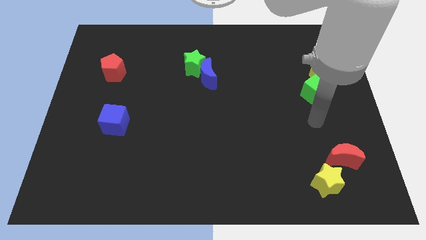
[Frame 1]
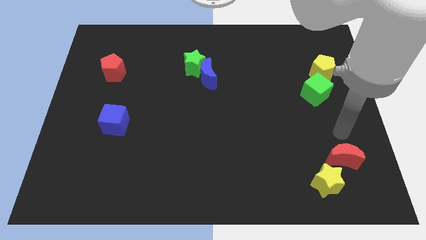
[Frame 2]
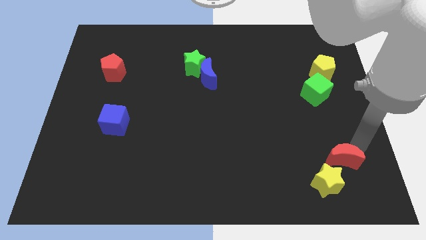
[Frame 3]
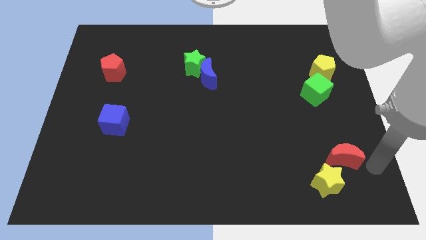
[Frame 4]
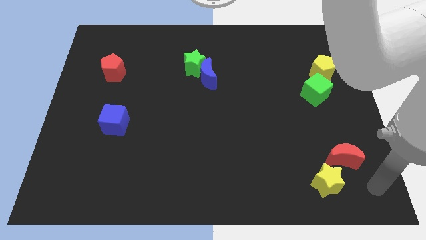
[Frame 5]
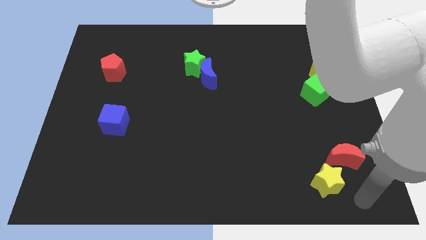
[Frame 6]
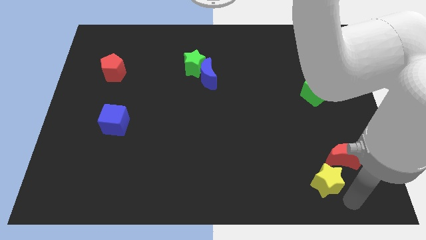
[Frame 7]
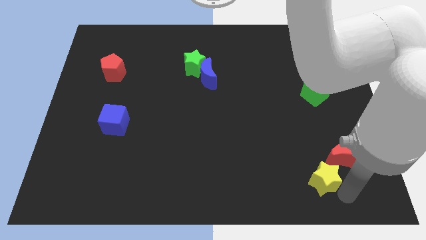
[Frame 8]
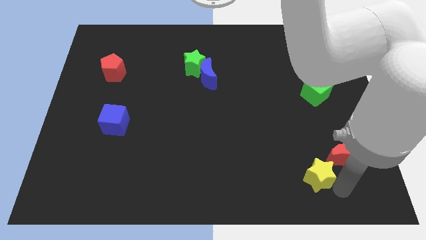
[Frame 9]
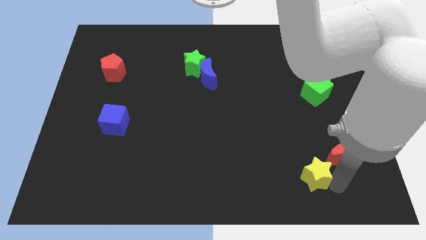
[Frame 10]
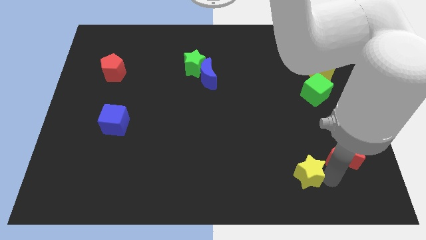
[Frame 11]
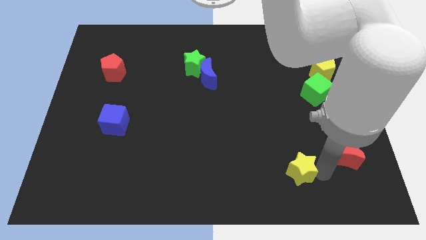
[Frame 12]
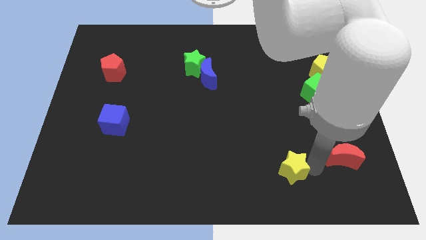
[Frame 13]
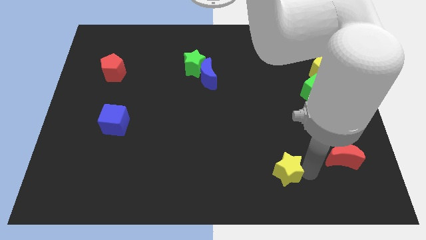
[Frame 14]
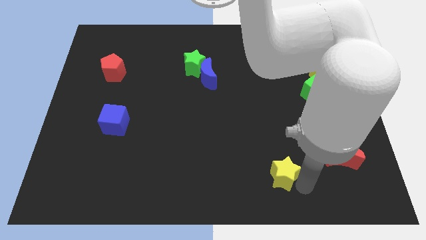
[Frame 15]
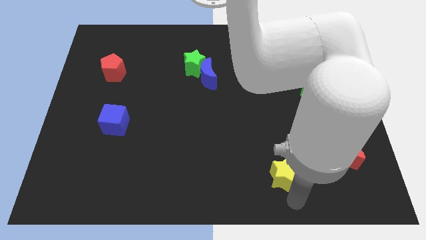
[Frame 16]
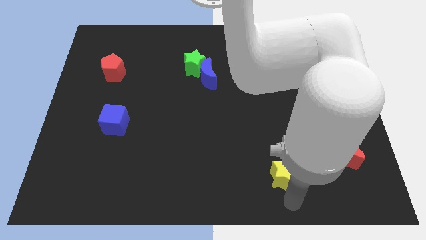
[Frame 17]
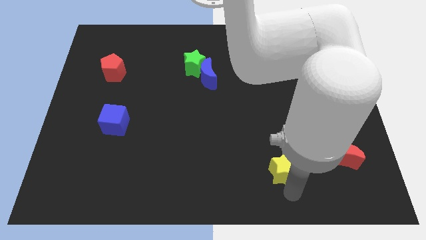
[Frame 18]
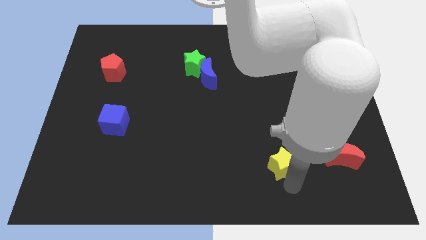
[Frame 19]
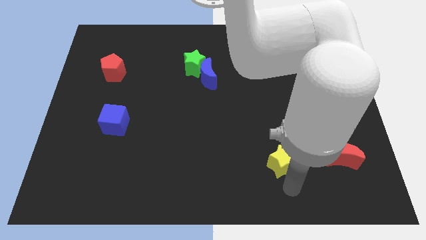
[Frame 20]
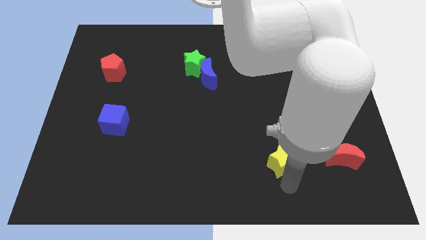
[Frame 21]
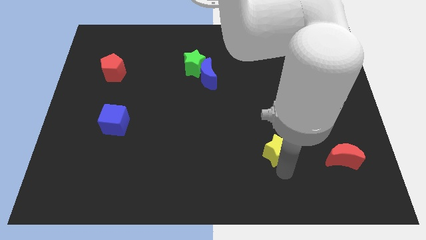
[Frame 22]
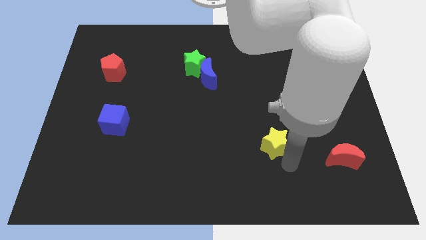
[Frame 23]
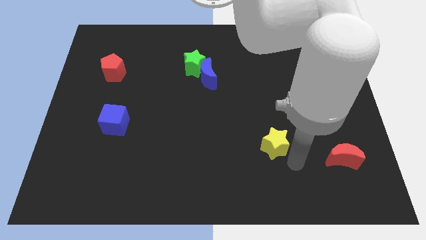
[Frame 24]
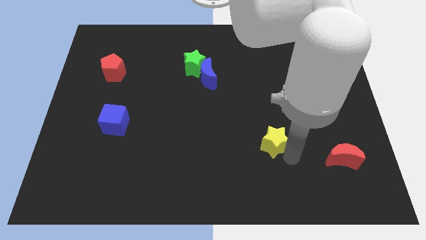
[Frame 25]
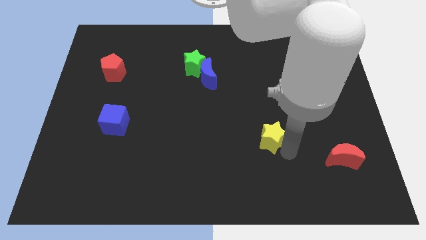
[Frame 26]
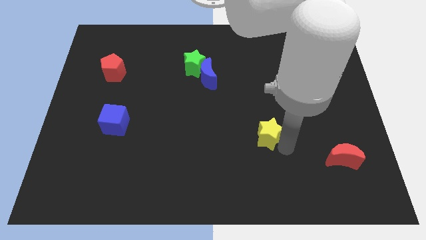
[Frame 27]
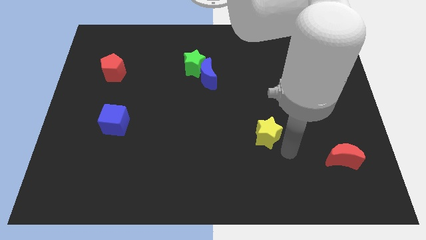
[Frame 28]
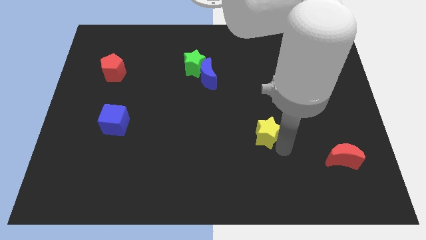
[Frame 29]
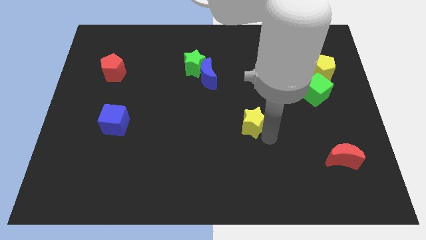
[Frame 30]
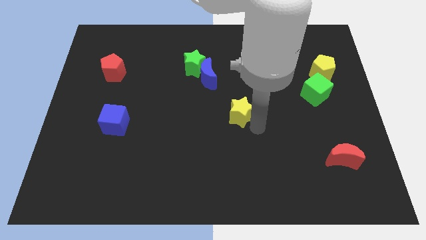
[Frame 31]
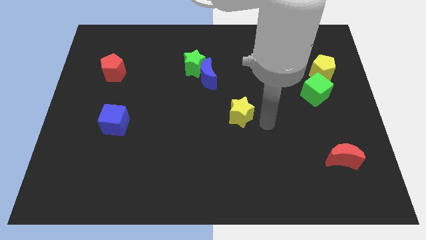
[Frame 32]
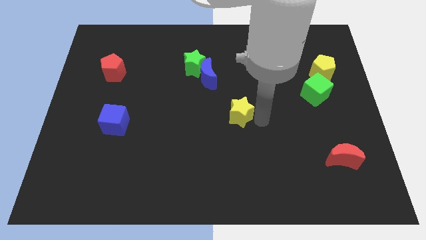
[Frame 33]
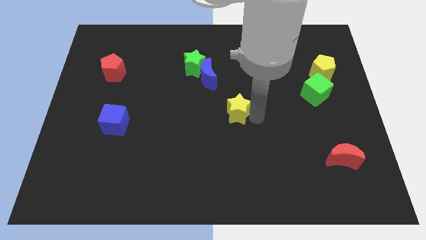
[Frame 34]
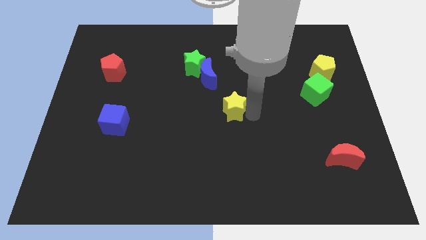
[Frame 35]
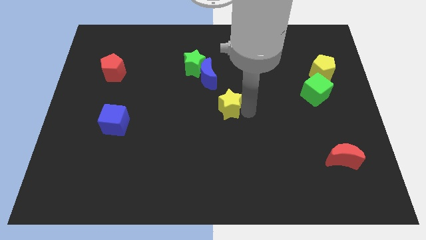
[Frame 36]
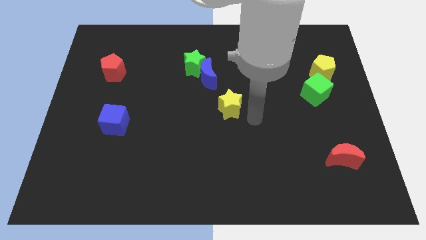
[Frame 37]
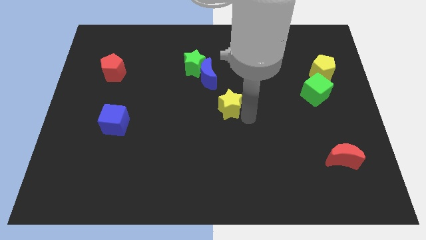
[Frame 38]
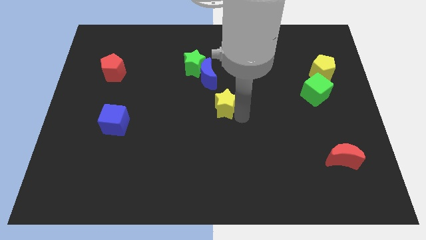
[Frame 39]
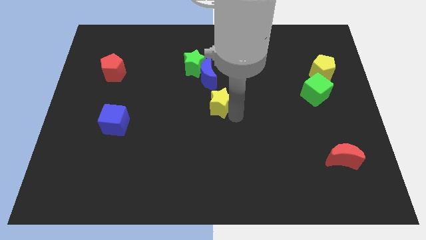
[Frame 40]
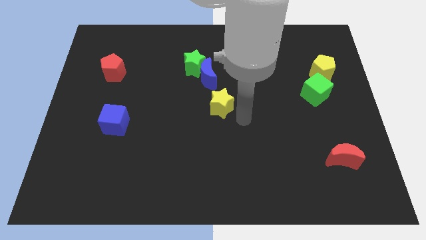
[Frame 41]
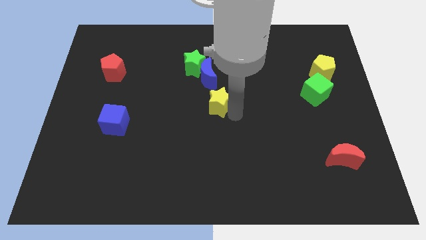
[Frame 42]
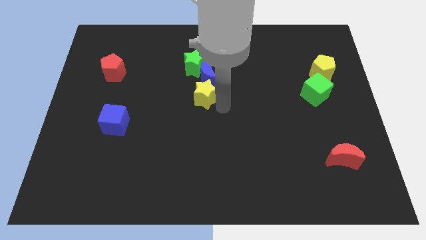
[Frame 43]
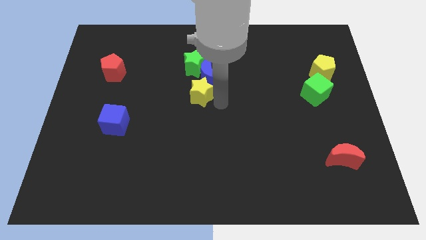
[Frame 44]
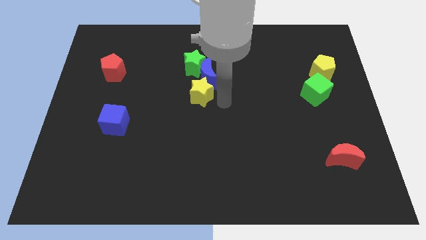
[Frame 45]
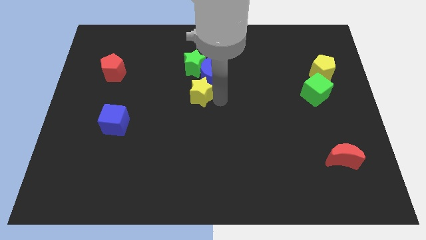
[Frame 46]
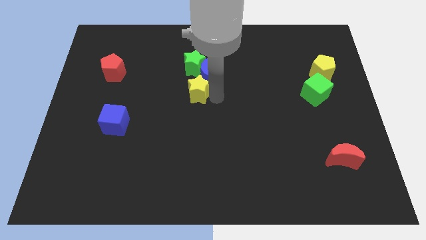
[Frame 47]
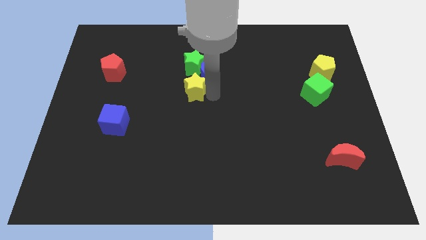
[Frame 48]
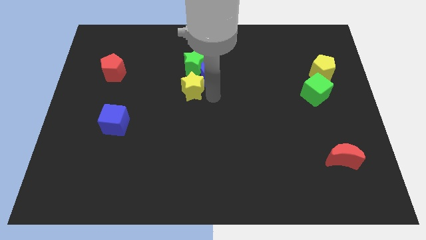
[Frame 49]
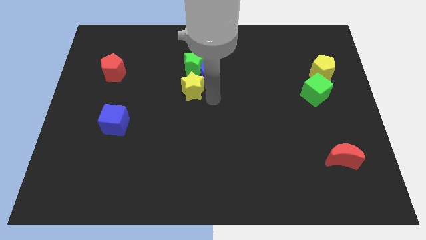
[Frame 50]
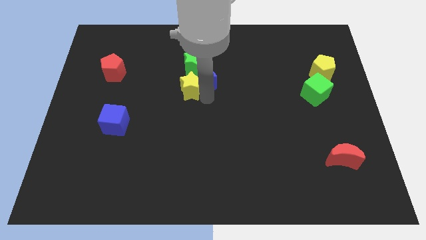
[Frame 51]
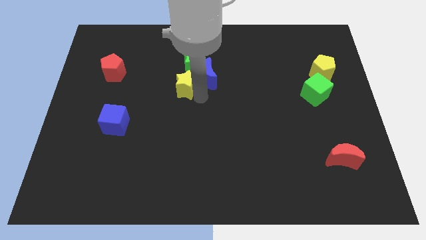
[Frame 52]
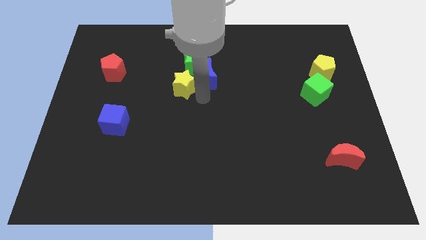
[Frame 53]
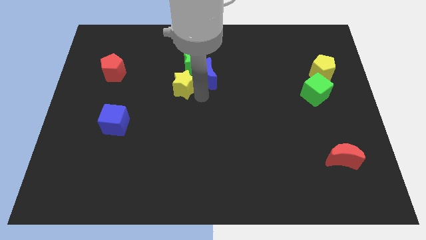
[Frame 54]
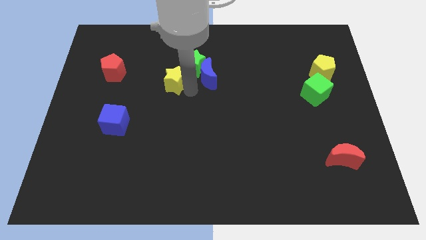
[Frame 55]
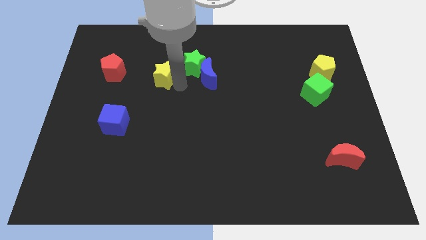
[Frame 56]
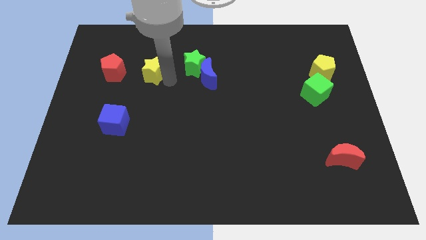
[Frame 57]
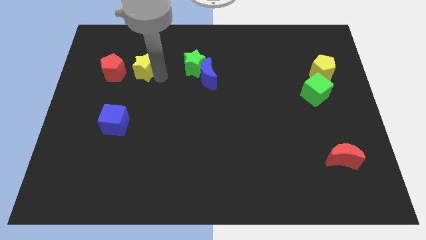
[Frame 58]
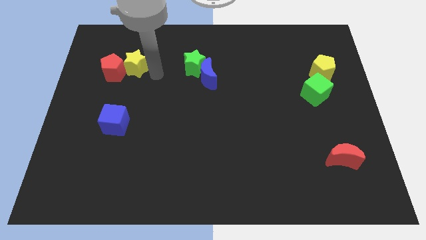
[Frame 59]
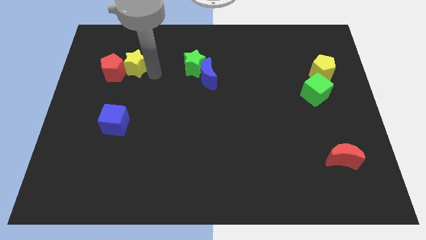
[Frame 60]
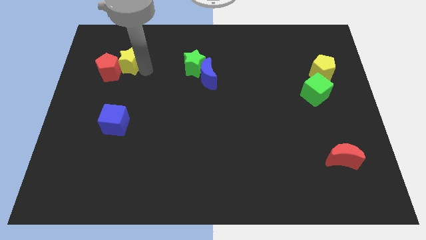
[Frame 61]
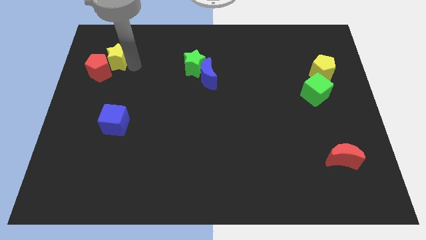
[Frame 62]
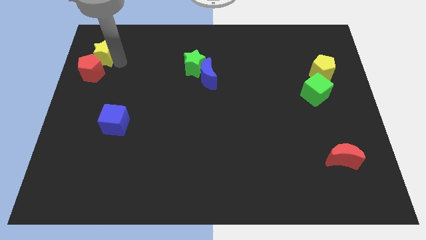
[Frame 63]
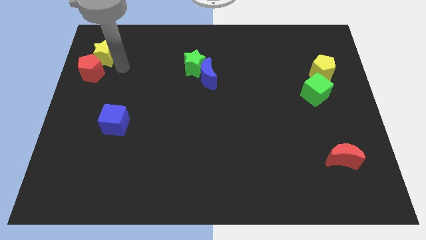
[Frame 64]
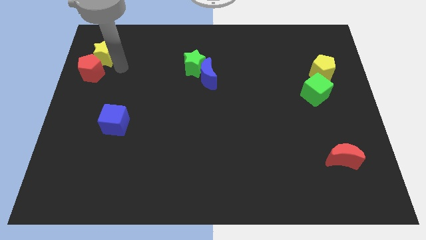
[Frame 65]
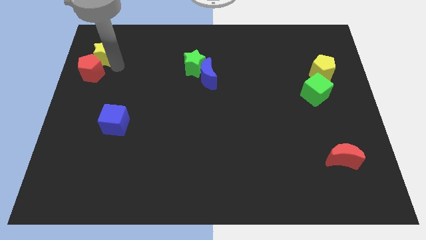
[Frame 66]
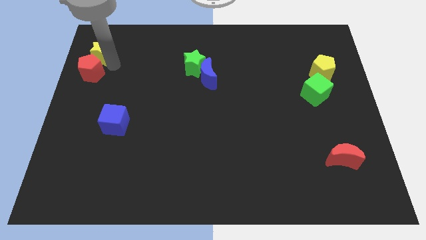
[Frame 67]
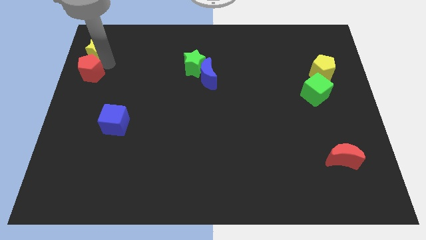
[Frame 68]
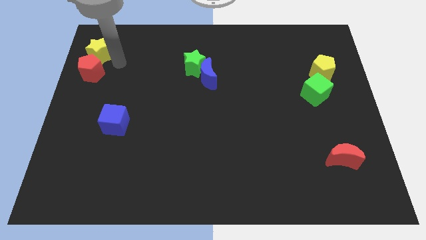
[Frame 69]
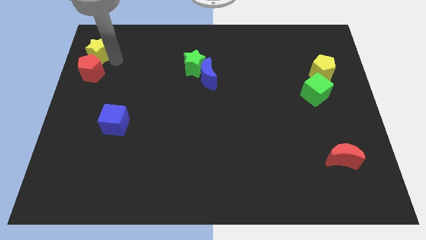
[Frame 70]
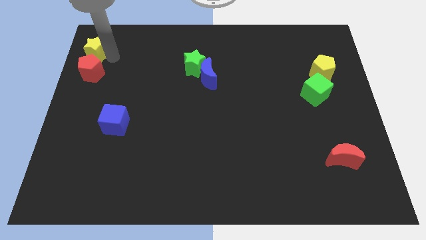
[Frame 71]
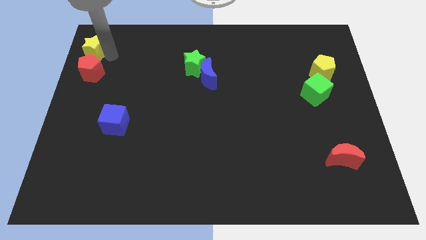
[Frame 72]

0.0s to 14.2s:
move the yellow star to the top left corner
